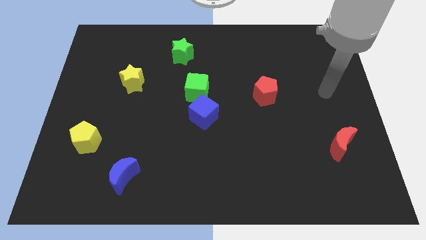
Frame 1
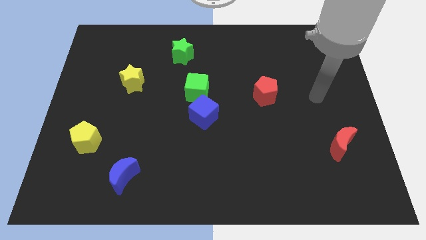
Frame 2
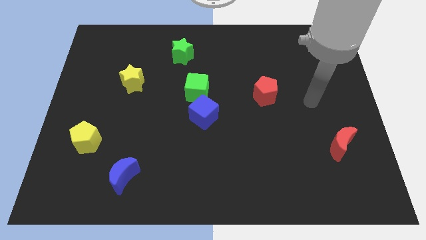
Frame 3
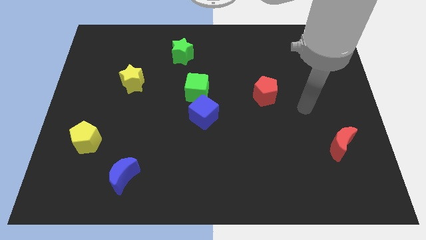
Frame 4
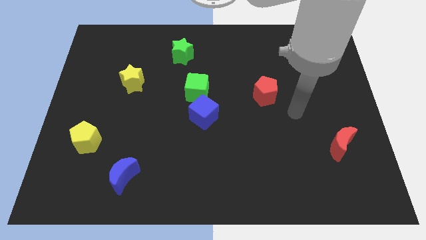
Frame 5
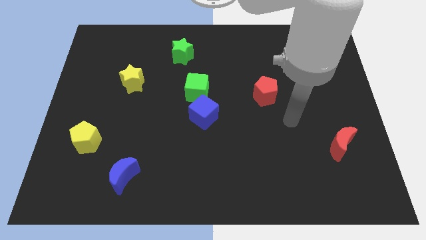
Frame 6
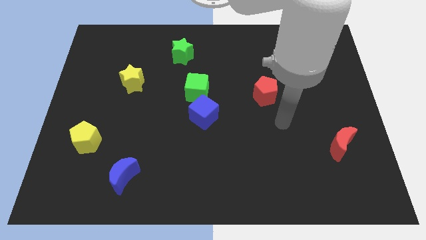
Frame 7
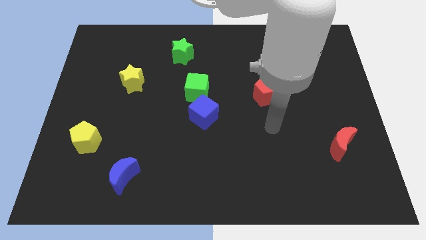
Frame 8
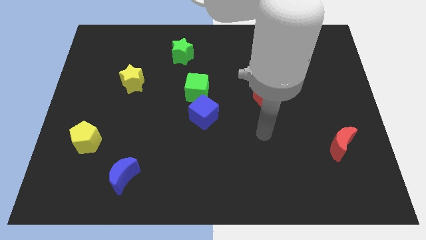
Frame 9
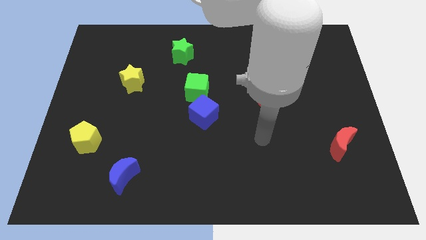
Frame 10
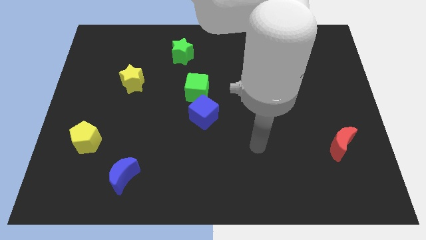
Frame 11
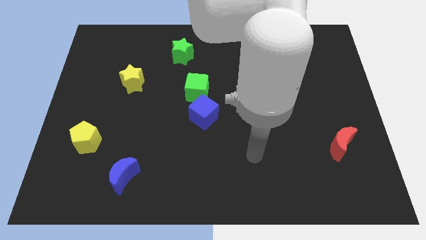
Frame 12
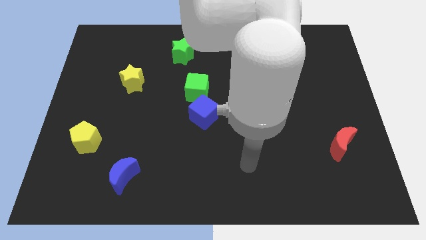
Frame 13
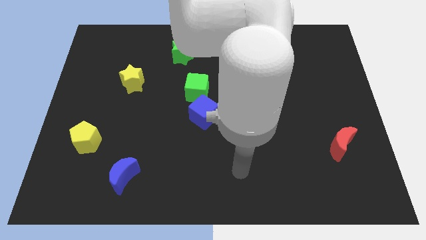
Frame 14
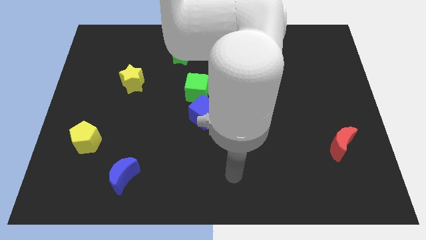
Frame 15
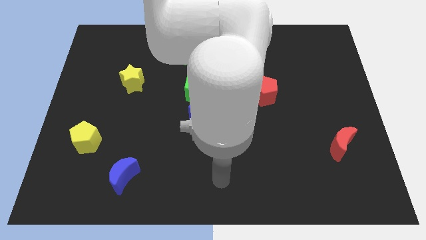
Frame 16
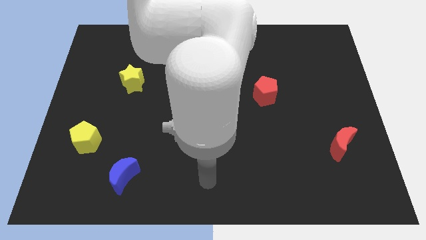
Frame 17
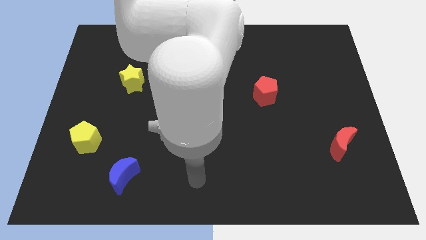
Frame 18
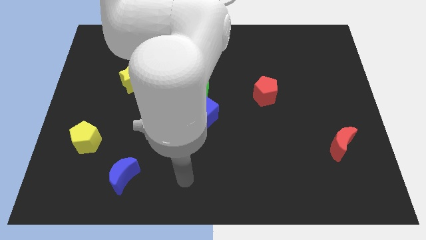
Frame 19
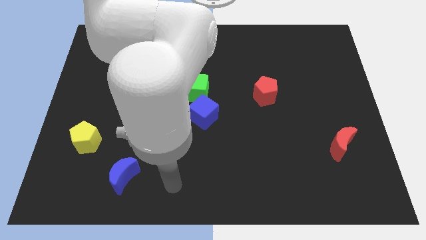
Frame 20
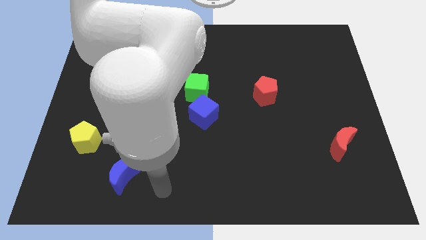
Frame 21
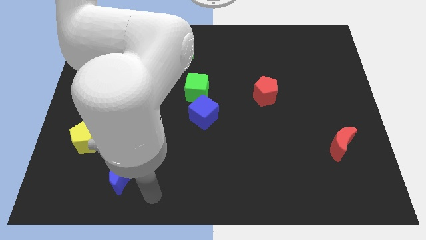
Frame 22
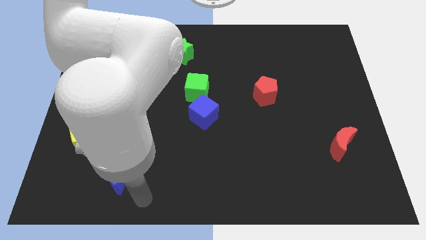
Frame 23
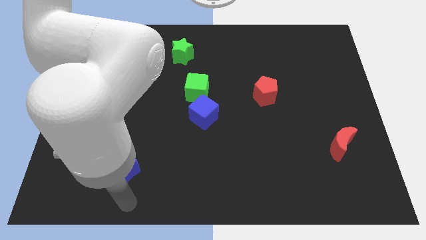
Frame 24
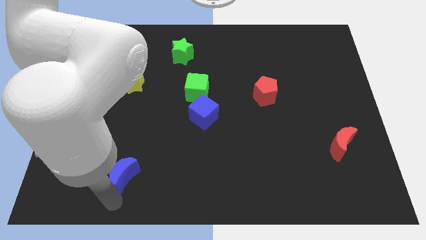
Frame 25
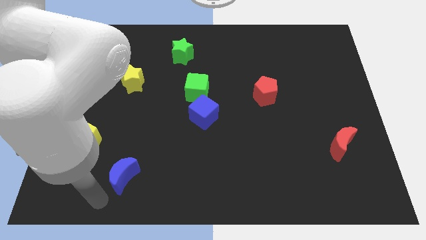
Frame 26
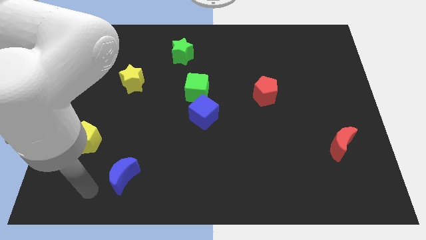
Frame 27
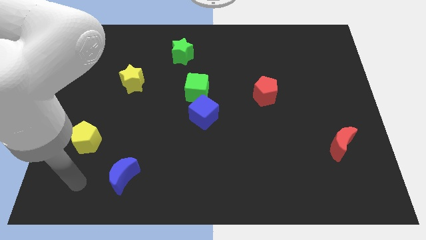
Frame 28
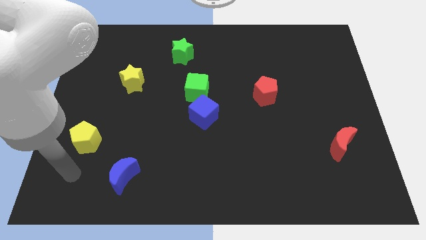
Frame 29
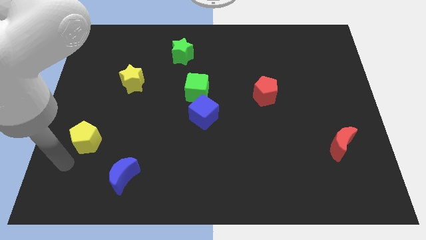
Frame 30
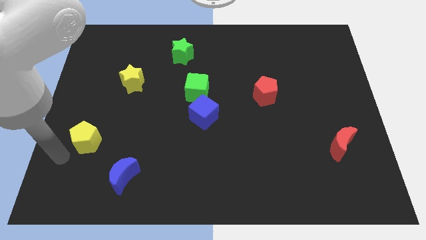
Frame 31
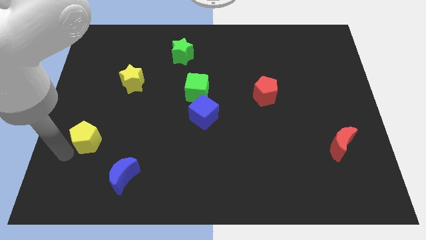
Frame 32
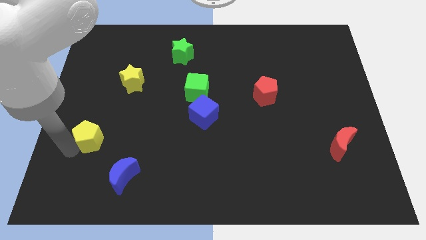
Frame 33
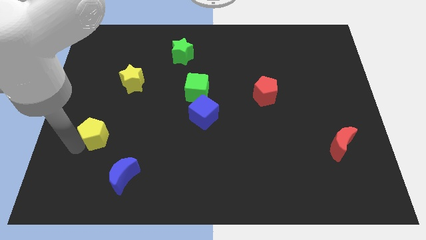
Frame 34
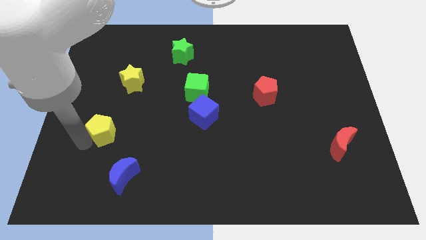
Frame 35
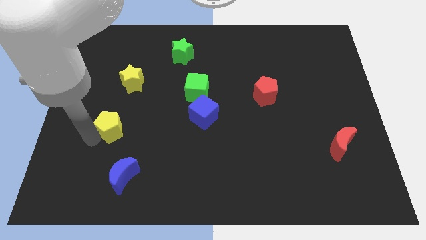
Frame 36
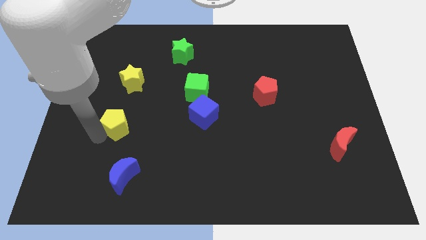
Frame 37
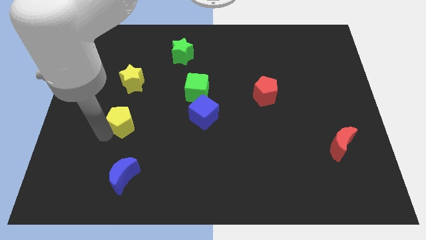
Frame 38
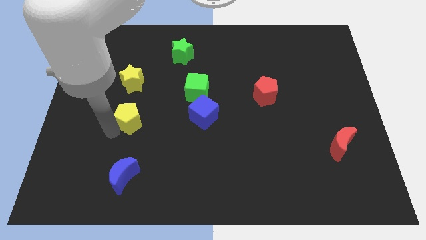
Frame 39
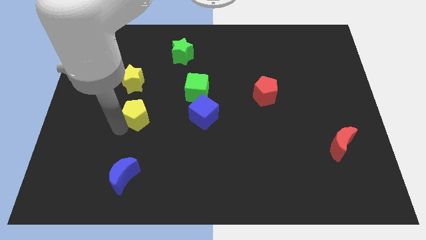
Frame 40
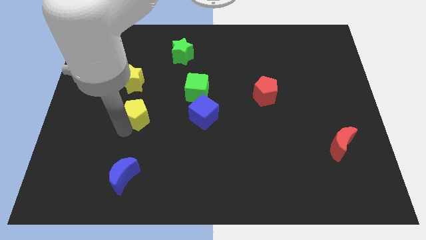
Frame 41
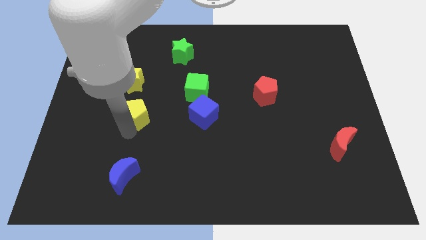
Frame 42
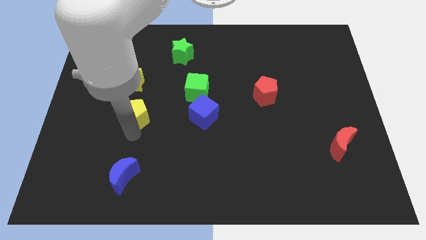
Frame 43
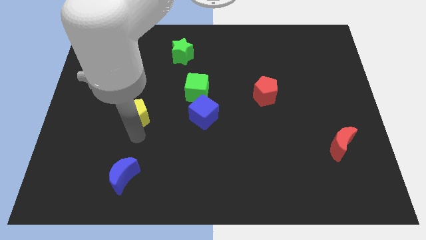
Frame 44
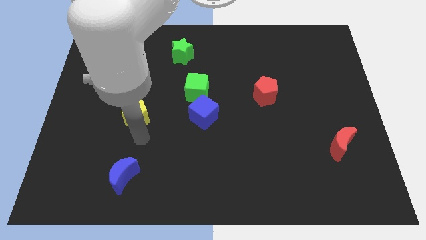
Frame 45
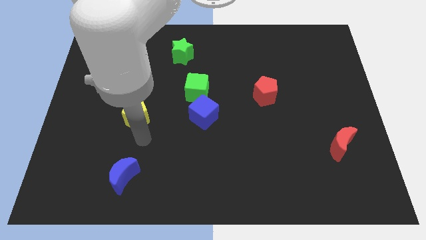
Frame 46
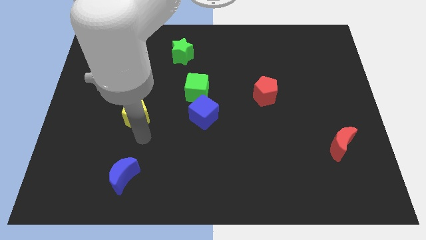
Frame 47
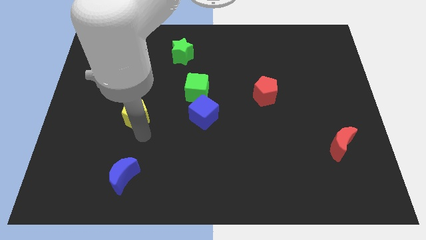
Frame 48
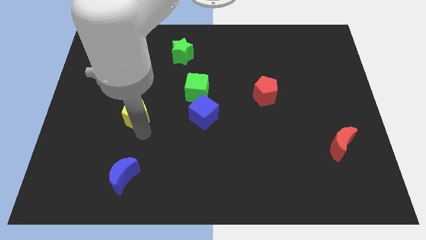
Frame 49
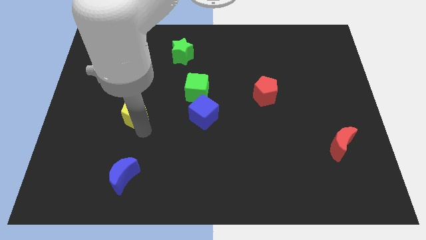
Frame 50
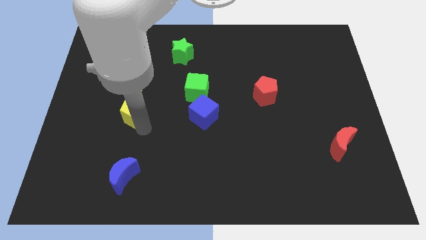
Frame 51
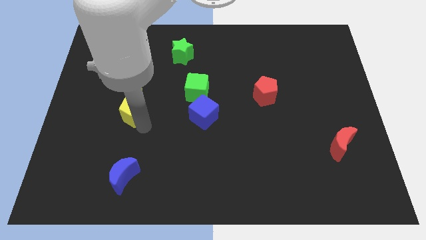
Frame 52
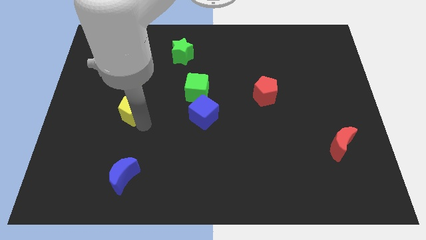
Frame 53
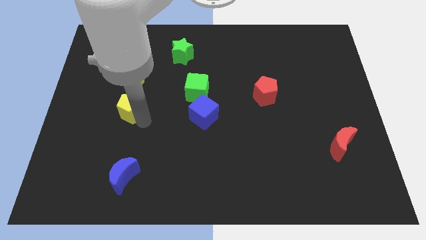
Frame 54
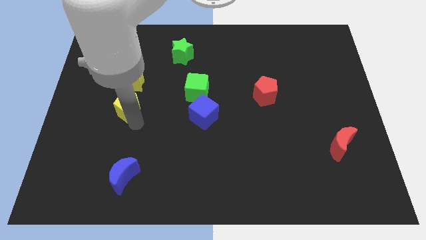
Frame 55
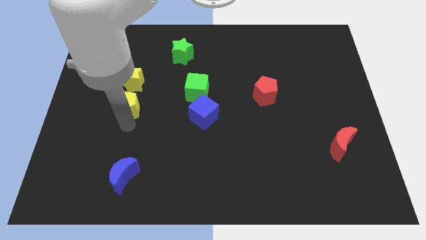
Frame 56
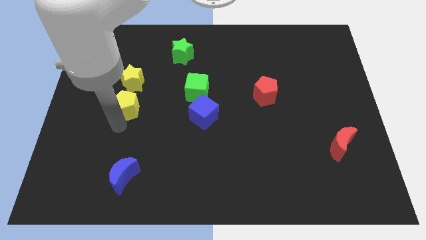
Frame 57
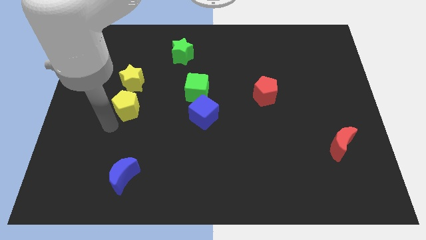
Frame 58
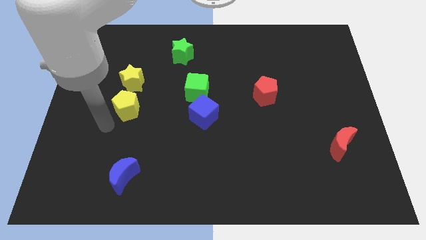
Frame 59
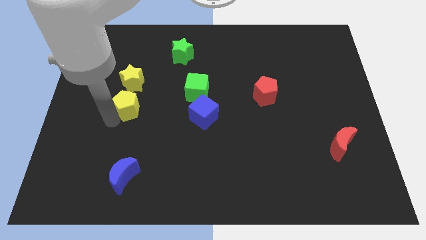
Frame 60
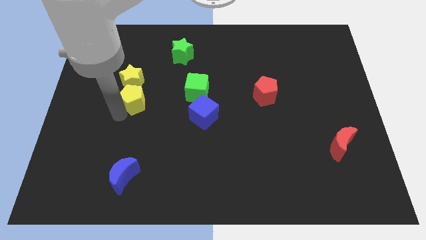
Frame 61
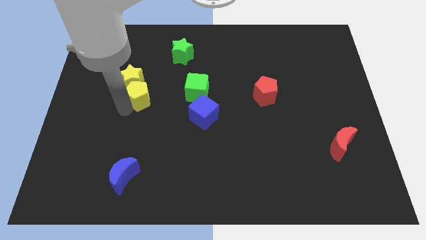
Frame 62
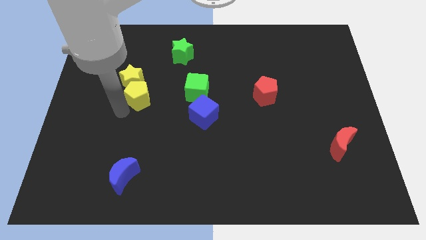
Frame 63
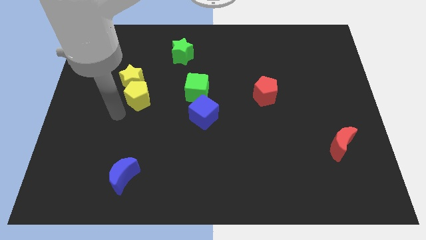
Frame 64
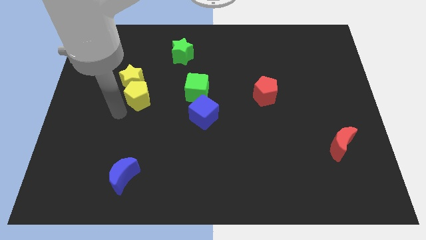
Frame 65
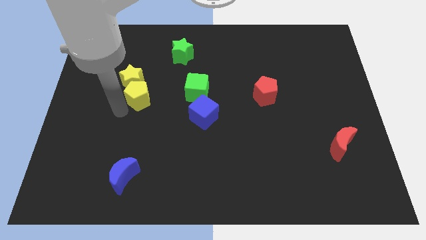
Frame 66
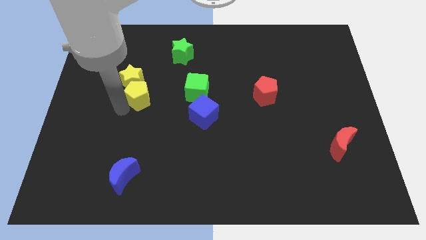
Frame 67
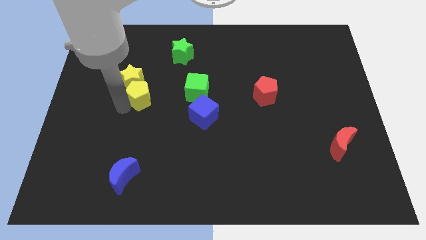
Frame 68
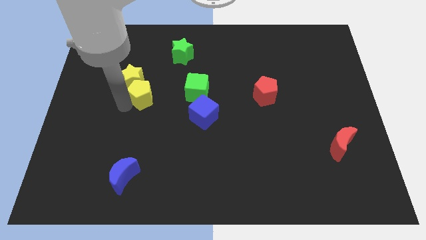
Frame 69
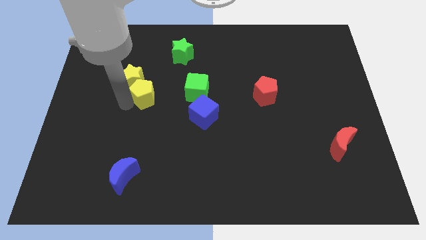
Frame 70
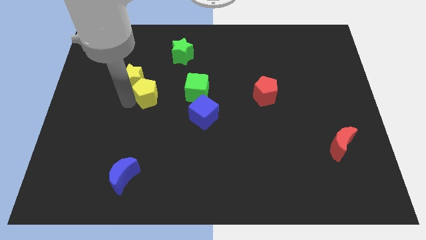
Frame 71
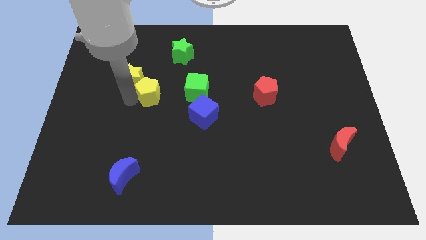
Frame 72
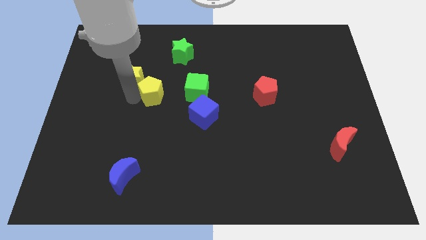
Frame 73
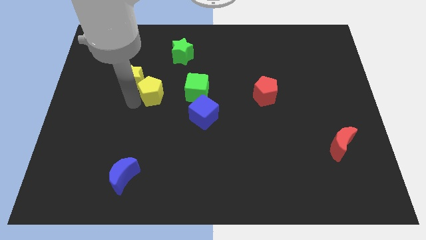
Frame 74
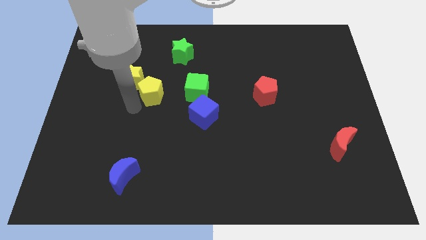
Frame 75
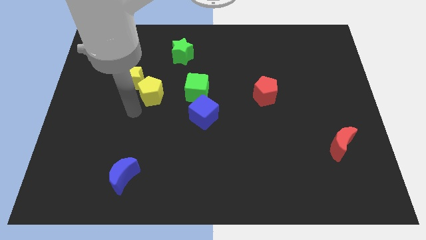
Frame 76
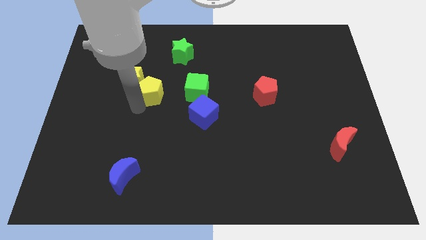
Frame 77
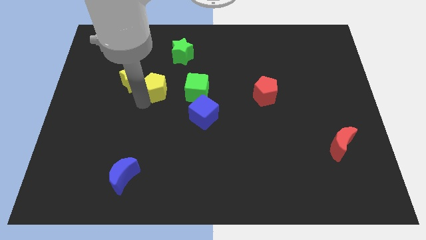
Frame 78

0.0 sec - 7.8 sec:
push the yellow pentagon up and to the right diagonally
